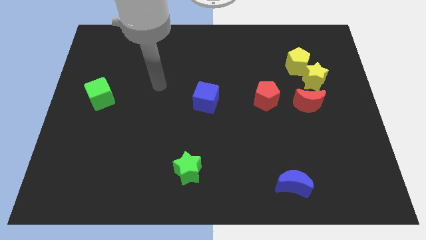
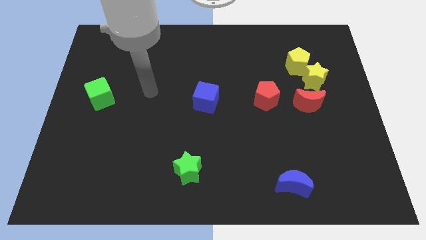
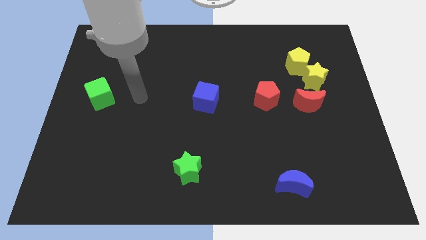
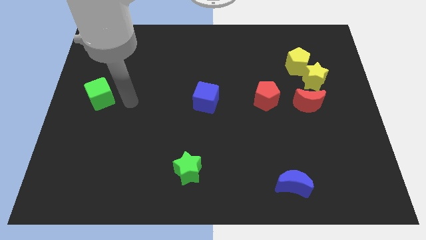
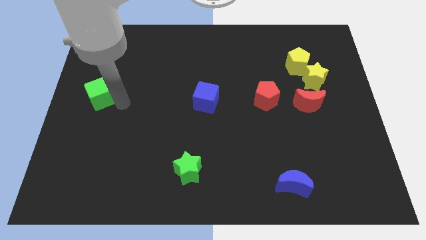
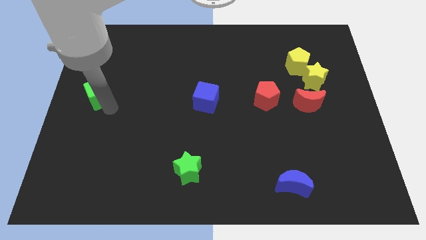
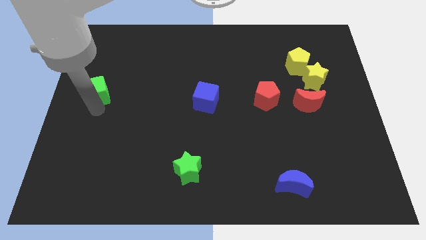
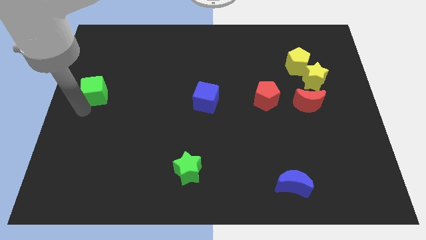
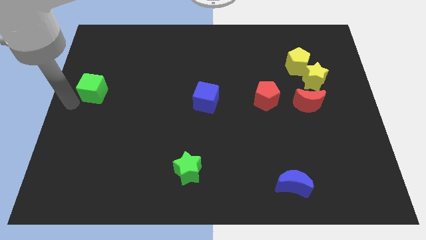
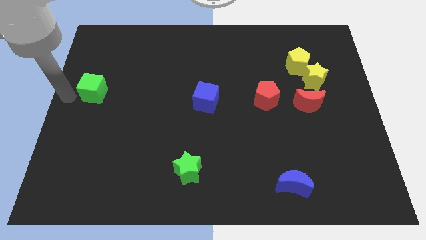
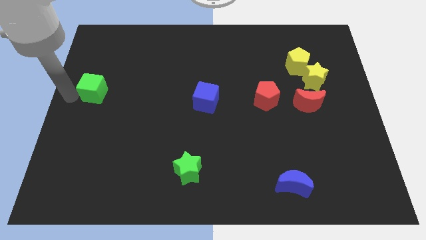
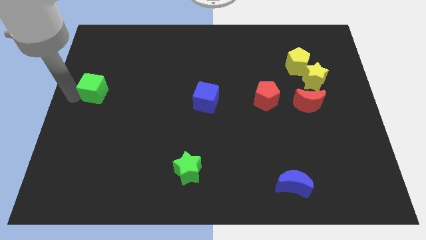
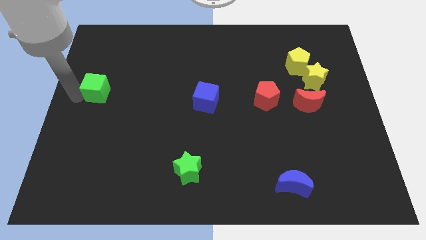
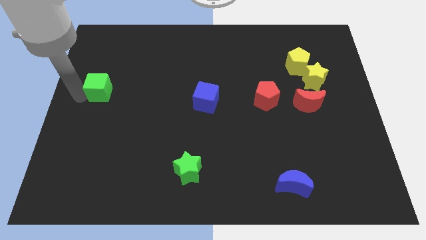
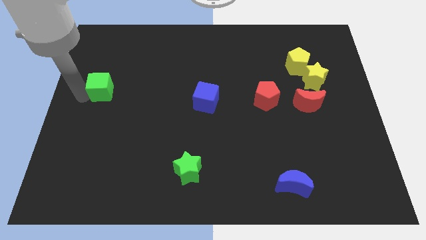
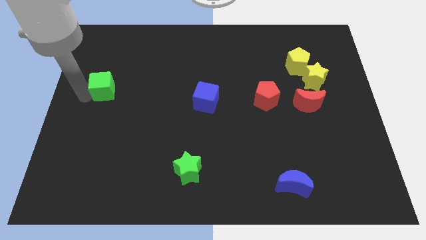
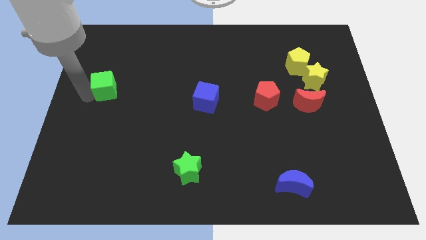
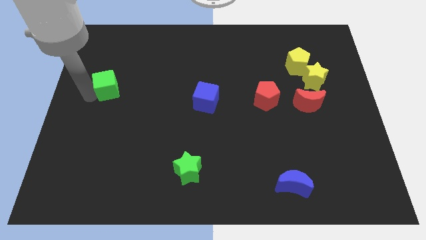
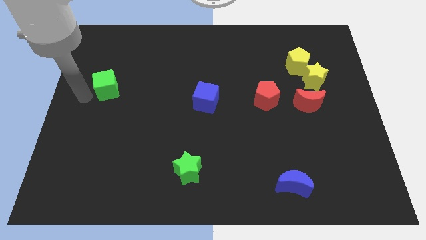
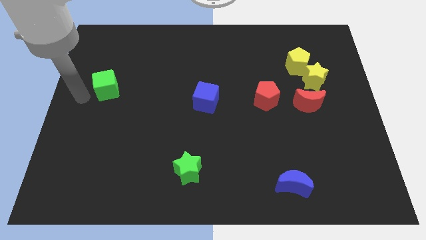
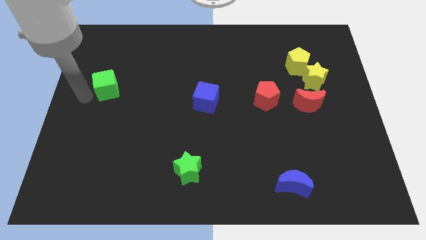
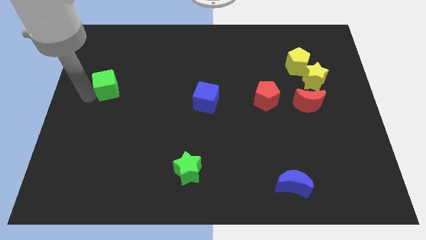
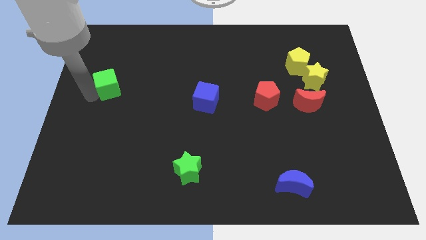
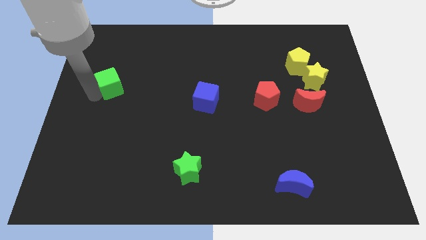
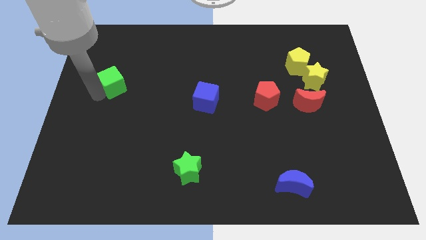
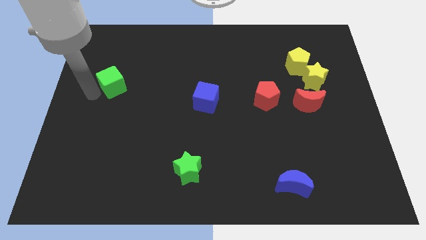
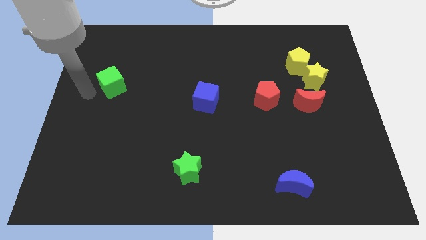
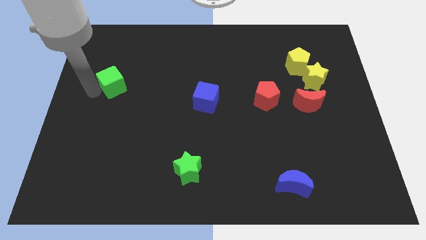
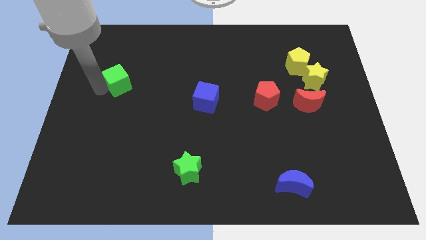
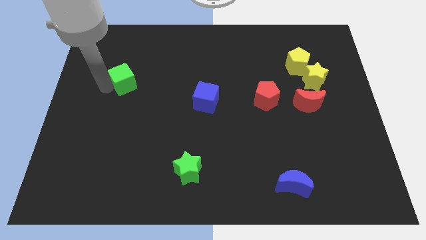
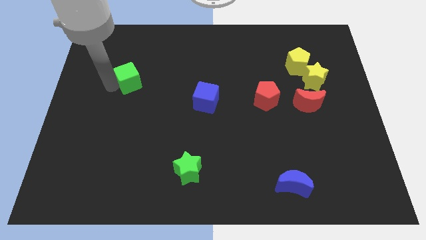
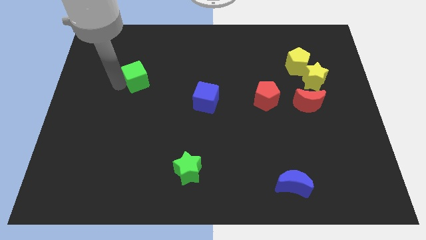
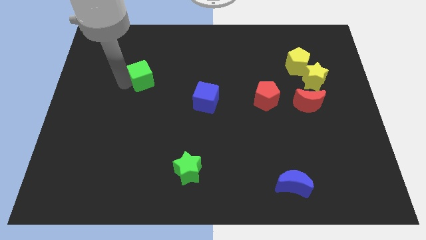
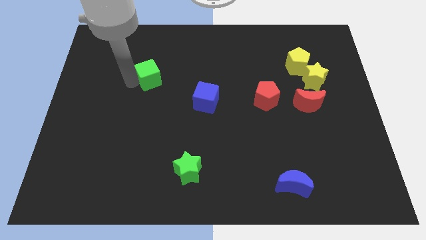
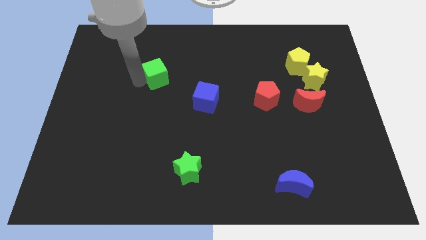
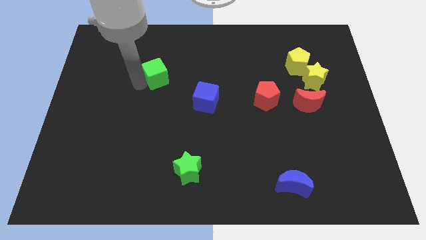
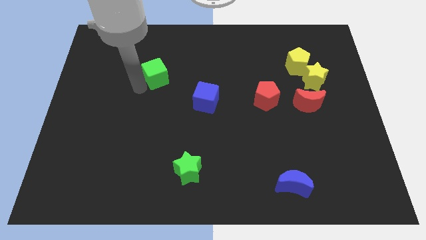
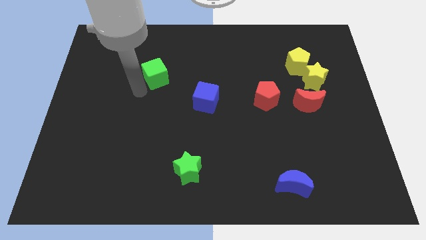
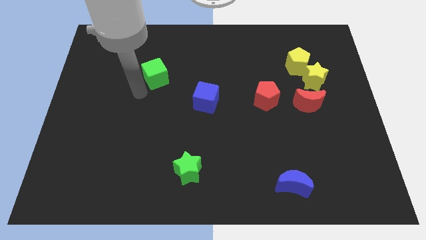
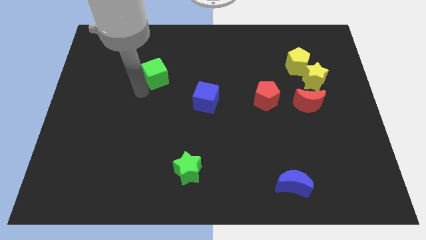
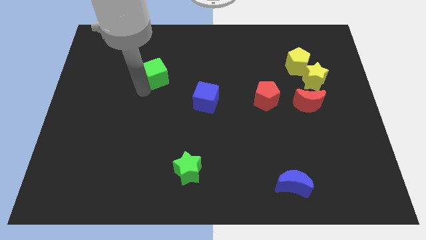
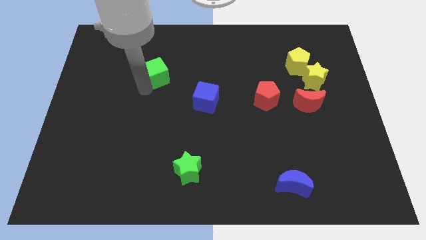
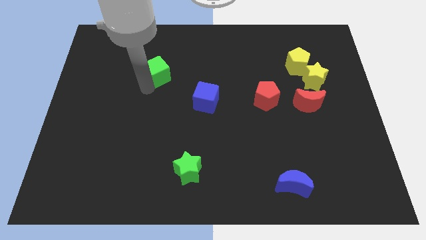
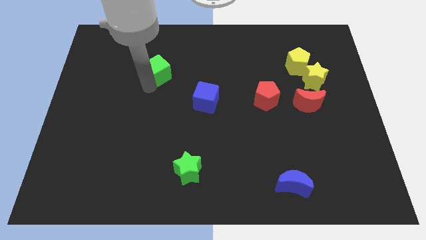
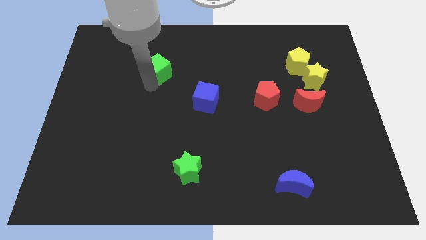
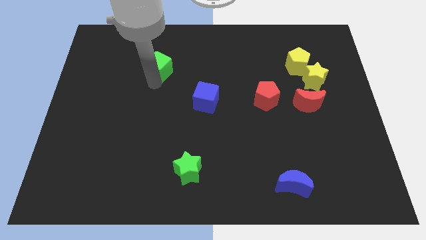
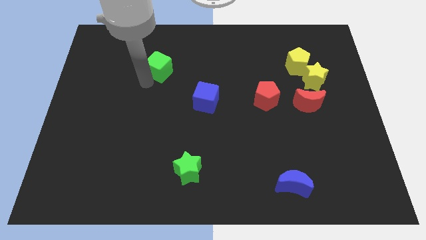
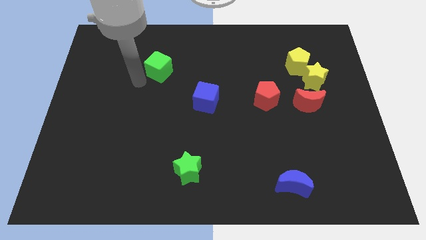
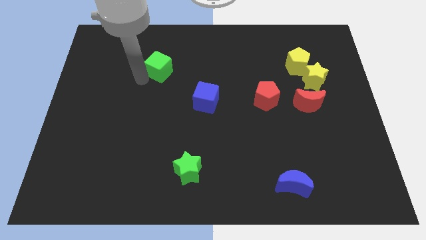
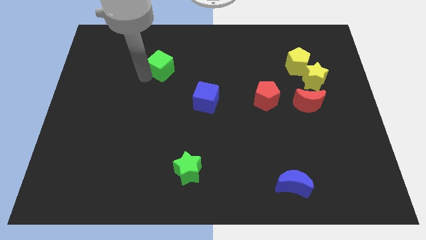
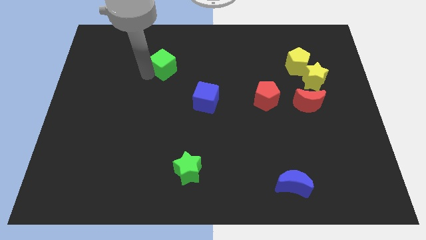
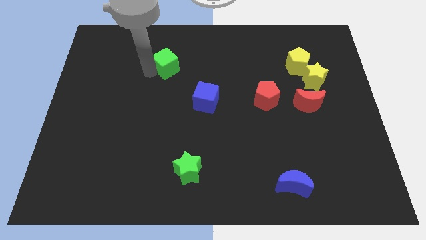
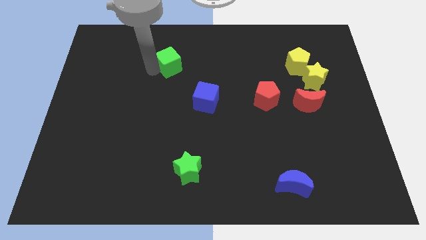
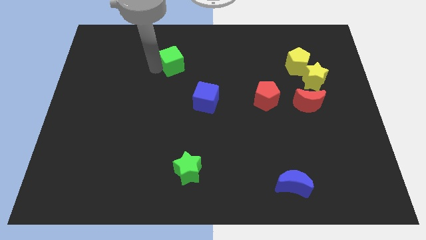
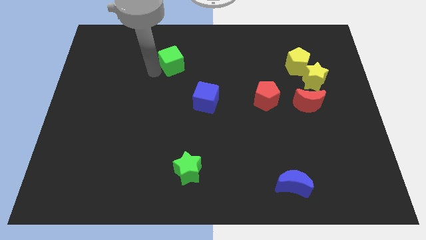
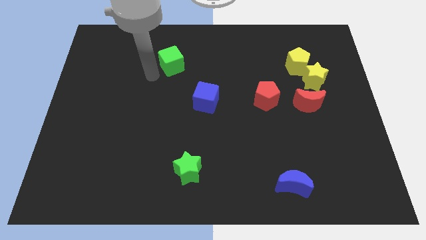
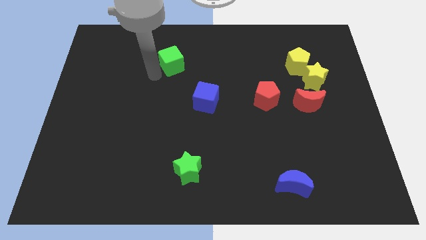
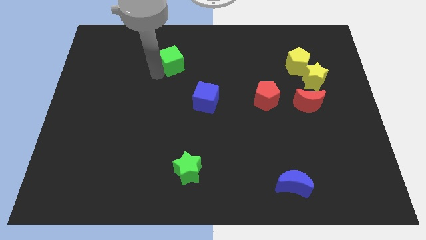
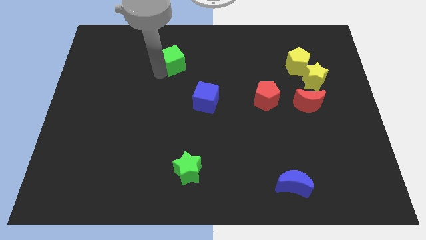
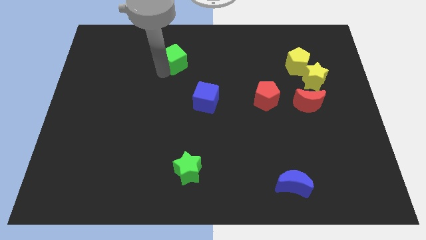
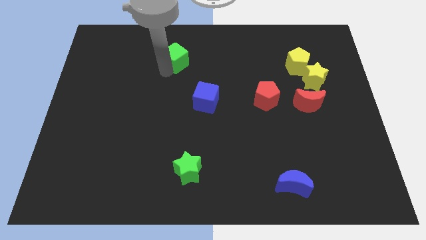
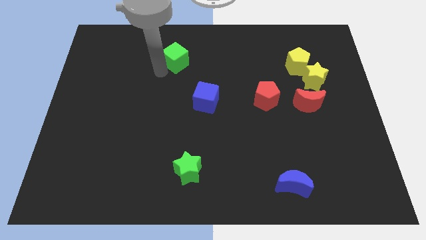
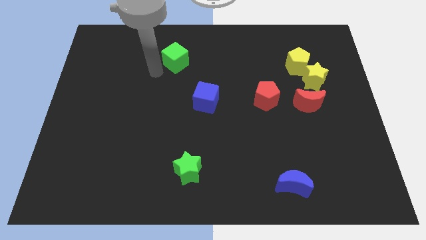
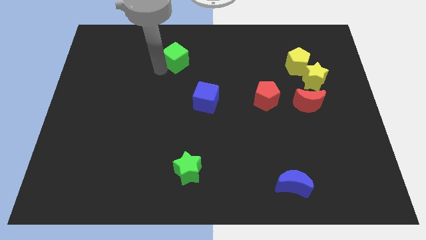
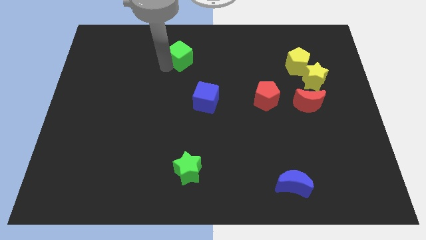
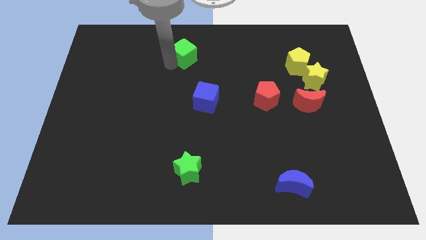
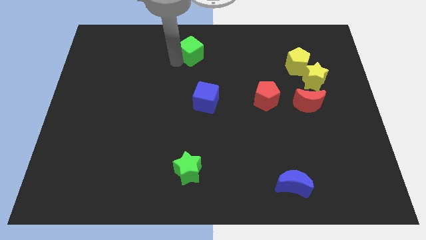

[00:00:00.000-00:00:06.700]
slide the green cube to the top side

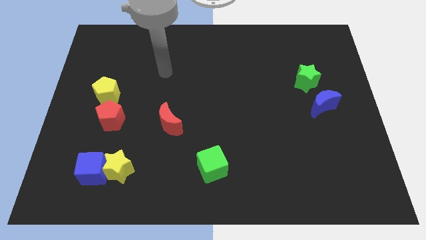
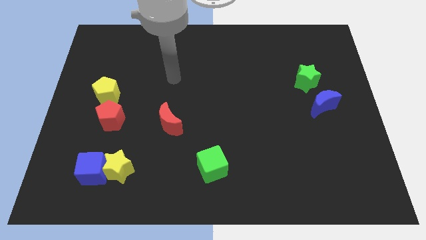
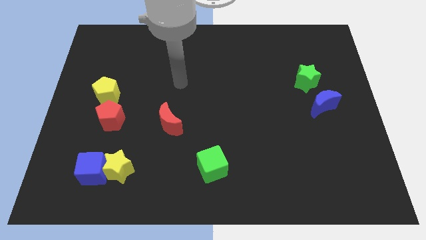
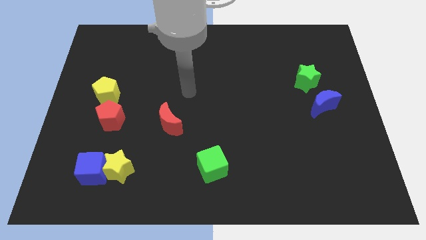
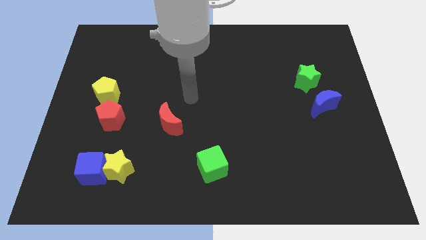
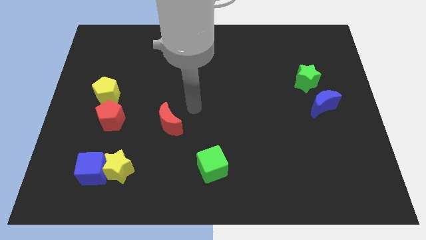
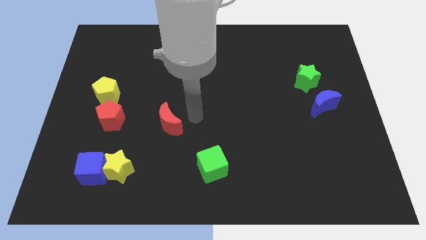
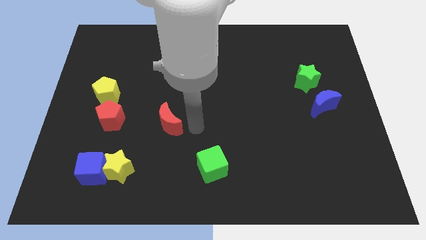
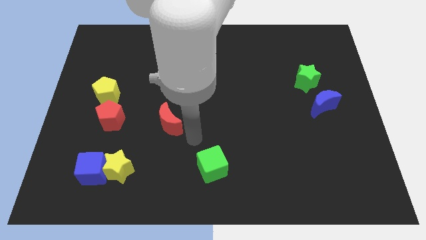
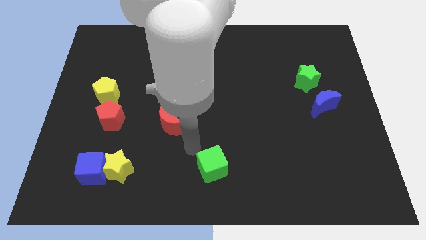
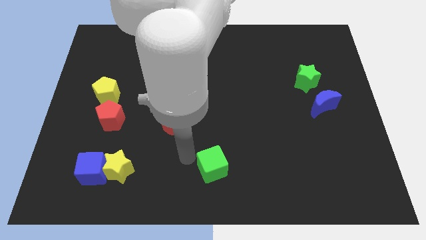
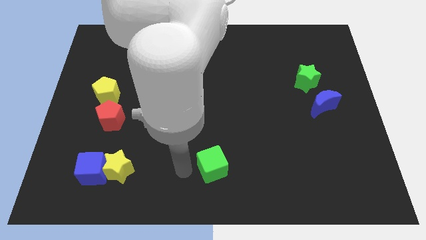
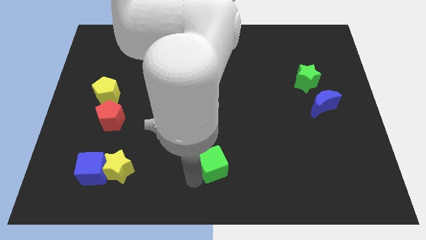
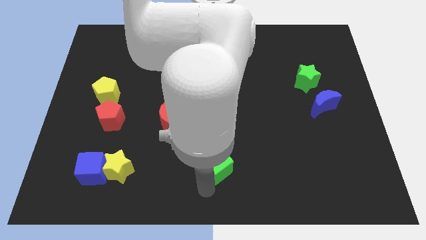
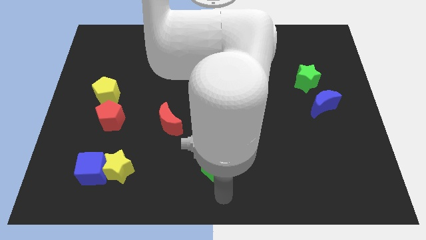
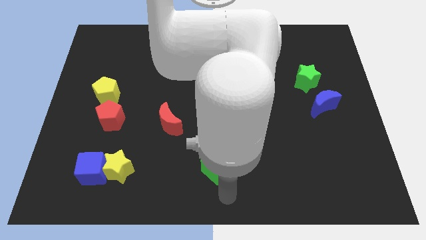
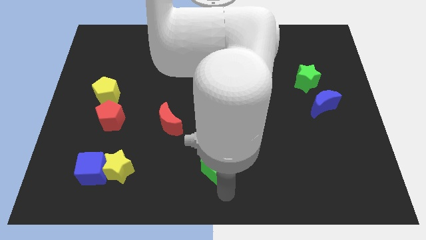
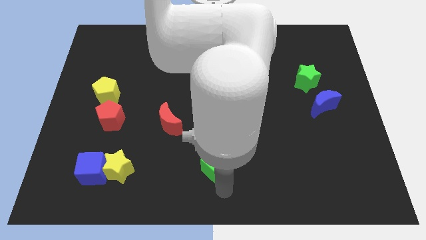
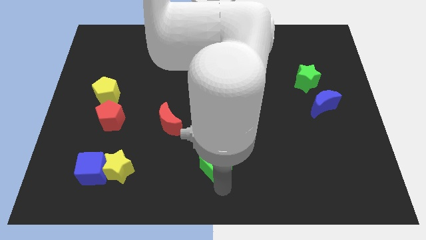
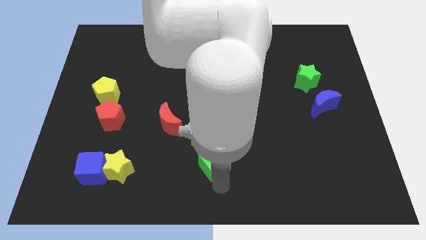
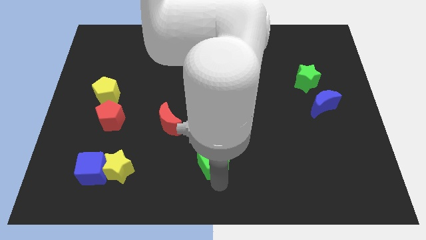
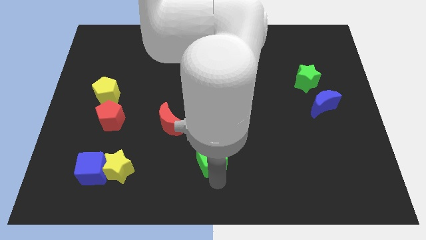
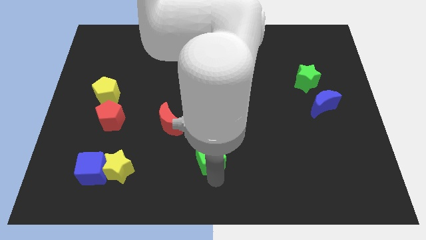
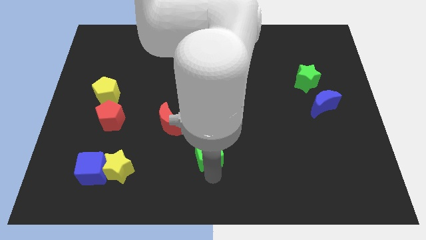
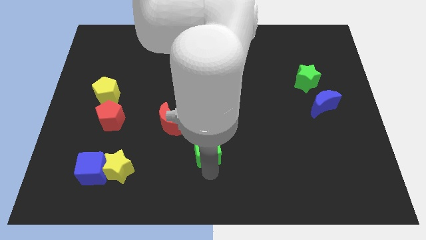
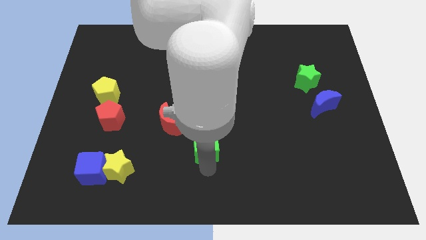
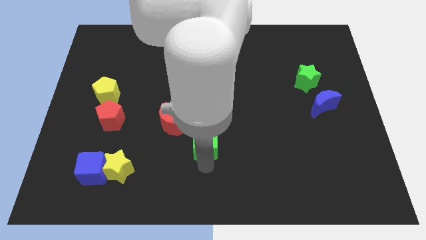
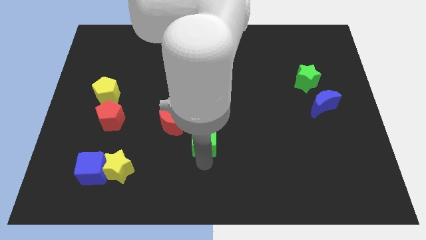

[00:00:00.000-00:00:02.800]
move the green cube to the center
